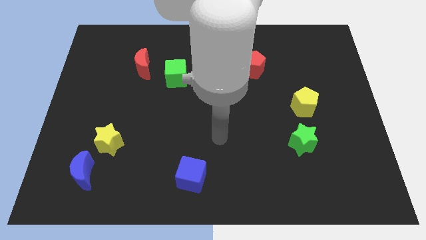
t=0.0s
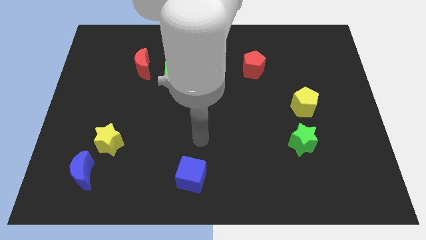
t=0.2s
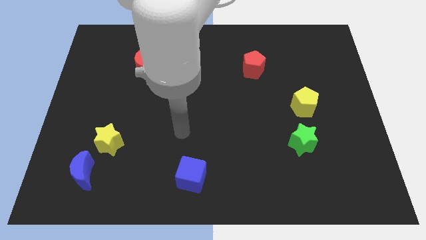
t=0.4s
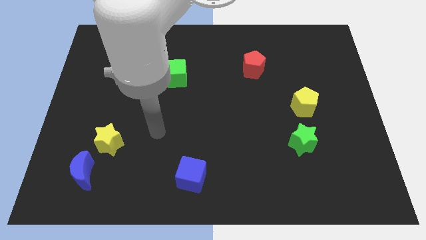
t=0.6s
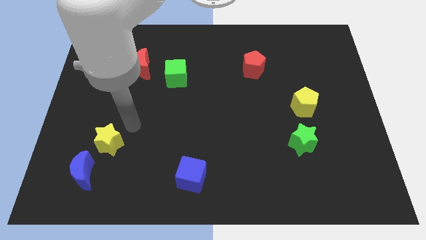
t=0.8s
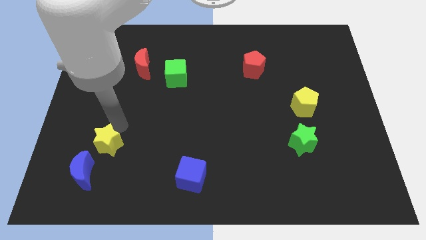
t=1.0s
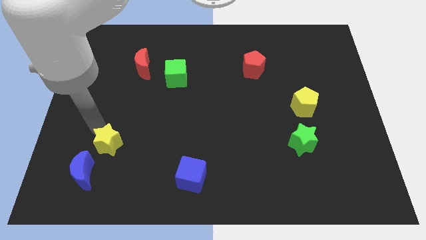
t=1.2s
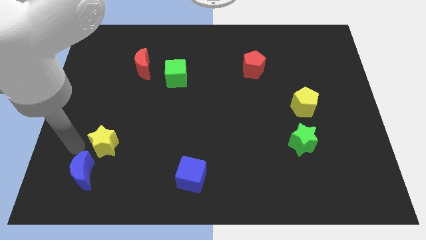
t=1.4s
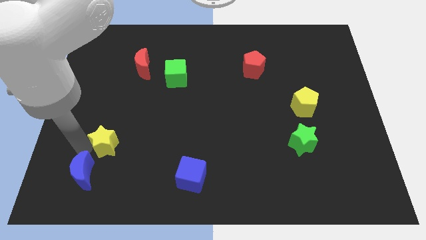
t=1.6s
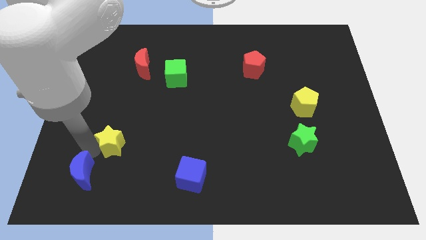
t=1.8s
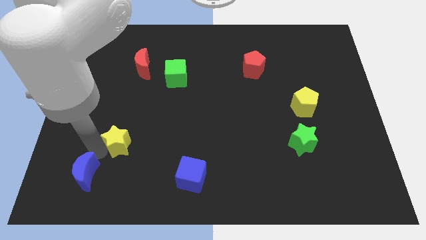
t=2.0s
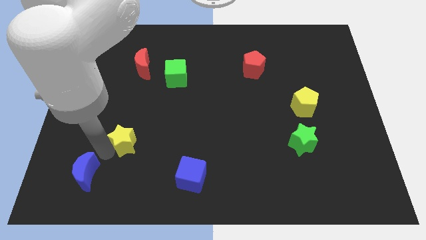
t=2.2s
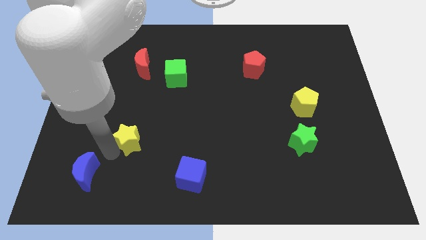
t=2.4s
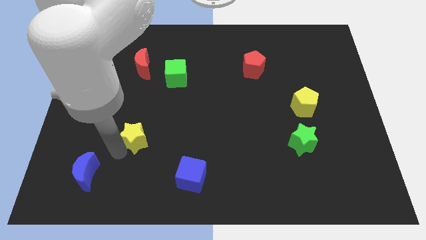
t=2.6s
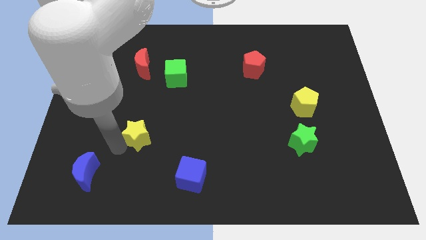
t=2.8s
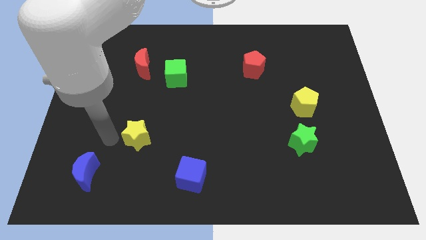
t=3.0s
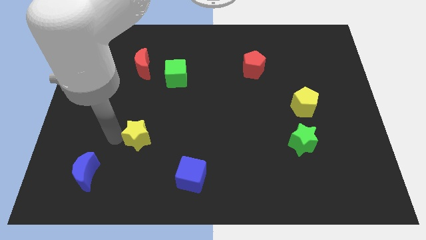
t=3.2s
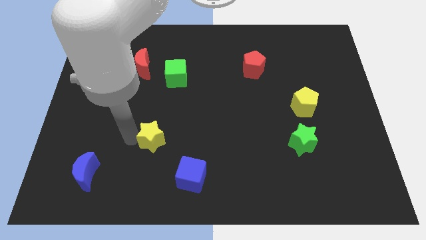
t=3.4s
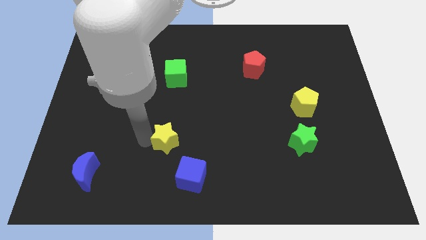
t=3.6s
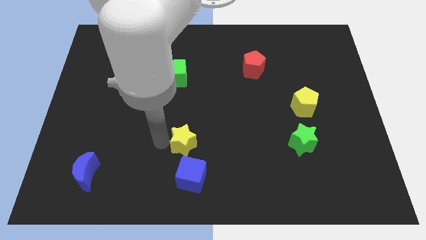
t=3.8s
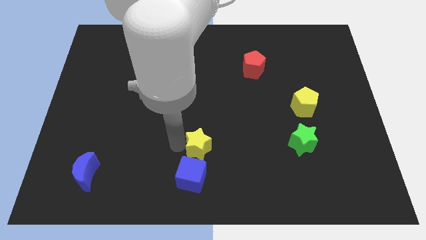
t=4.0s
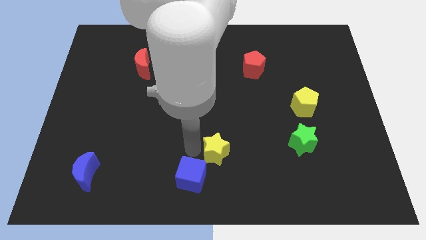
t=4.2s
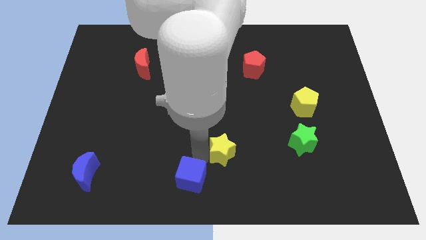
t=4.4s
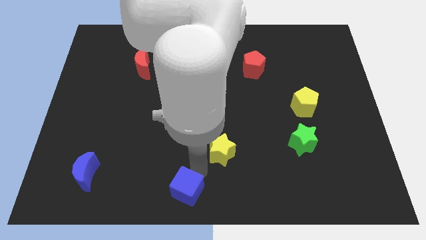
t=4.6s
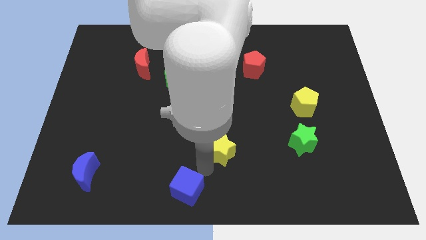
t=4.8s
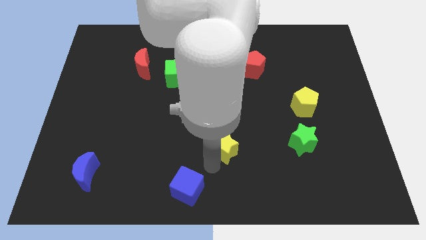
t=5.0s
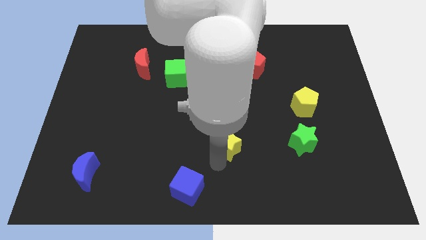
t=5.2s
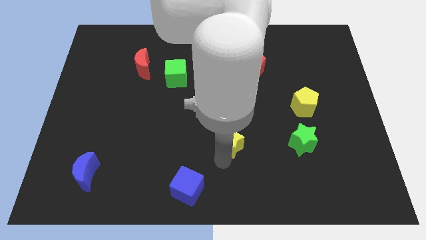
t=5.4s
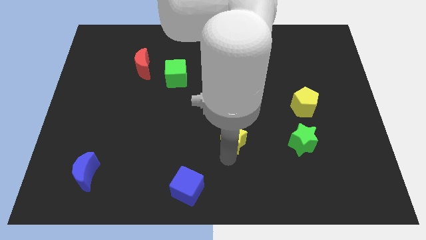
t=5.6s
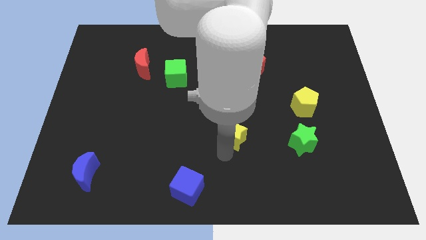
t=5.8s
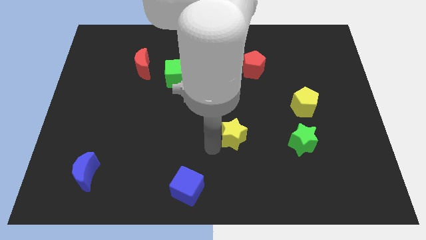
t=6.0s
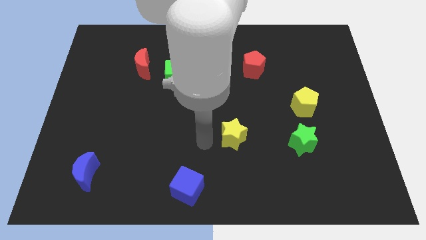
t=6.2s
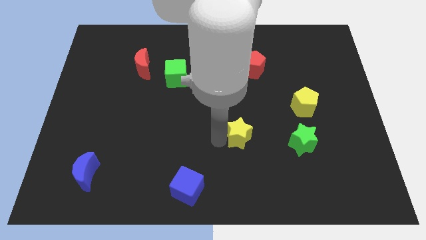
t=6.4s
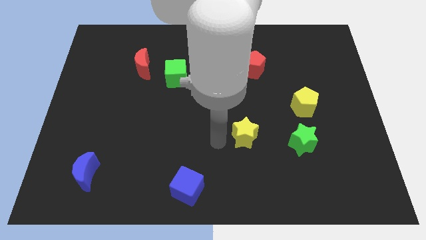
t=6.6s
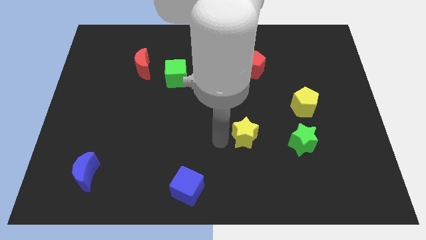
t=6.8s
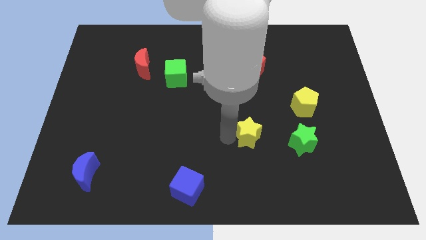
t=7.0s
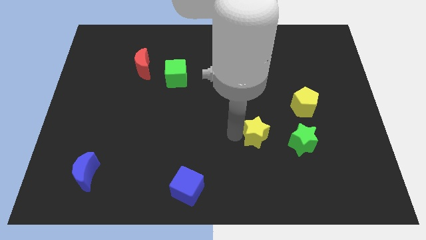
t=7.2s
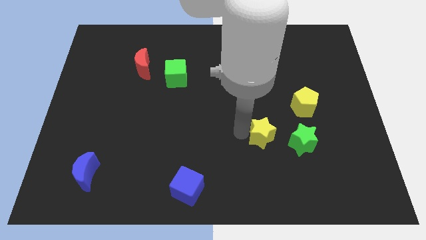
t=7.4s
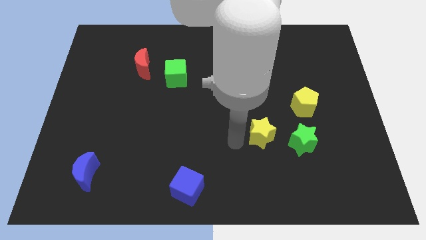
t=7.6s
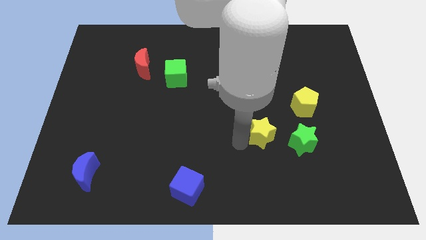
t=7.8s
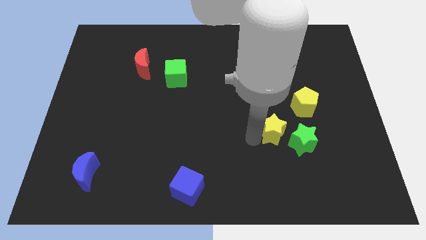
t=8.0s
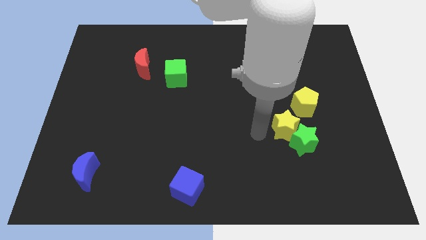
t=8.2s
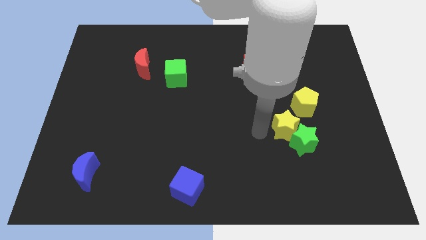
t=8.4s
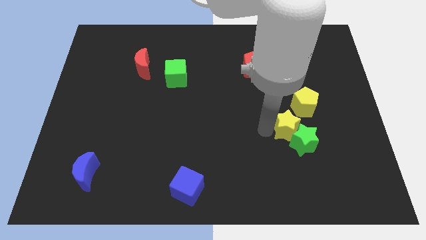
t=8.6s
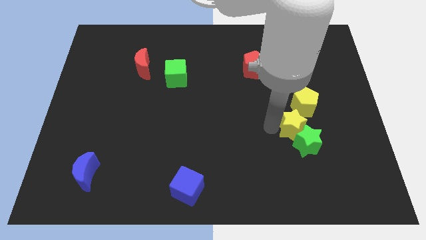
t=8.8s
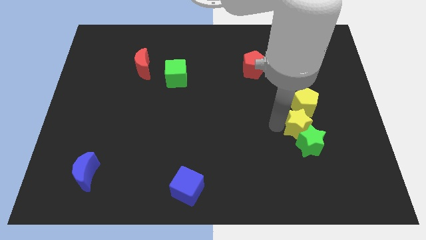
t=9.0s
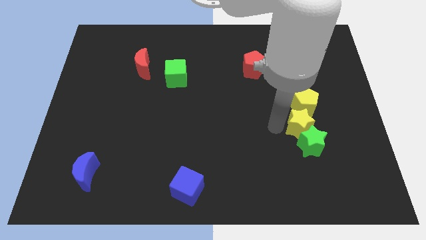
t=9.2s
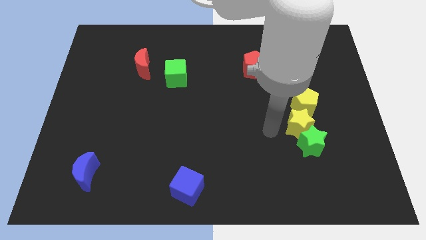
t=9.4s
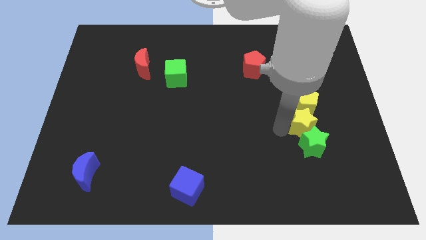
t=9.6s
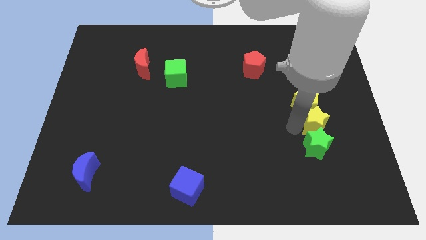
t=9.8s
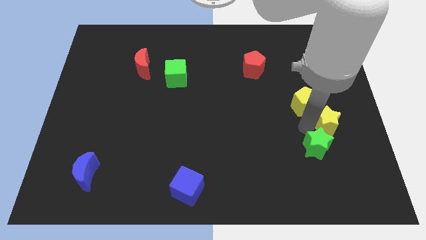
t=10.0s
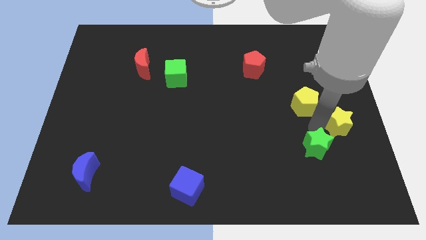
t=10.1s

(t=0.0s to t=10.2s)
slide the yellow star to the center right

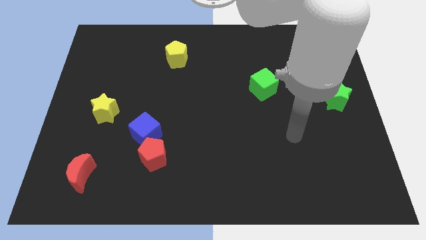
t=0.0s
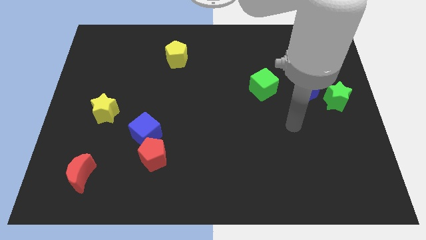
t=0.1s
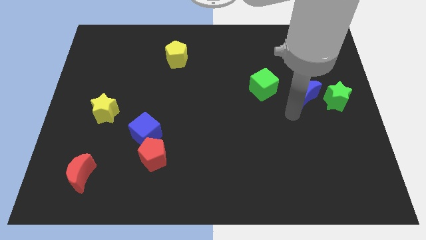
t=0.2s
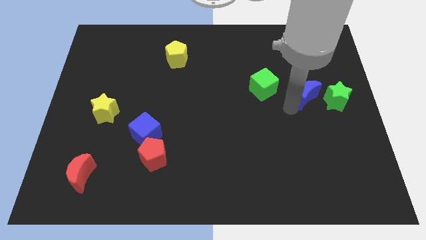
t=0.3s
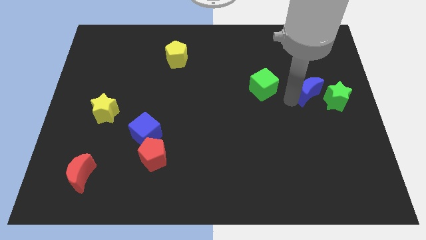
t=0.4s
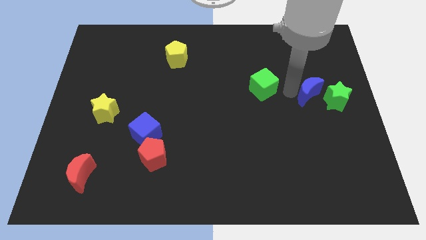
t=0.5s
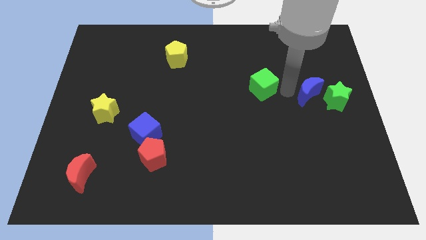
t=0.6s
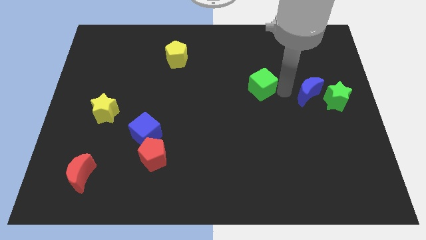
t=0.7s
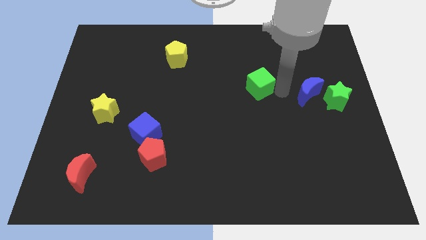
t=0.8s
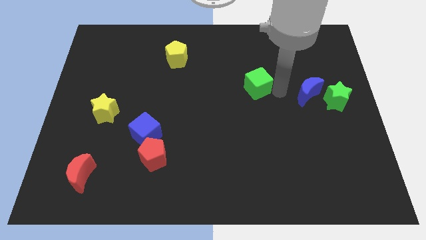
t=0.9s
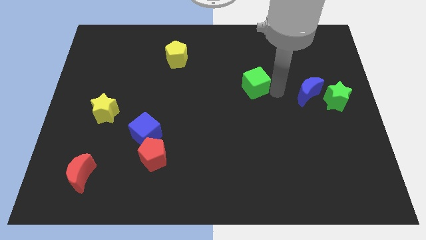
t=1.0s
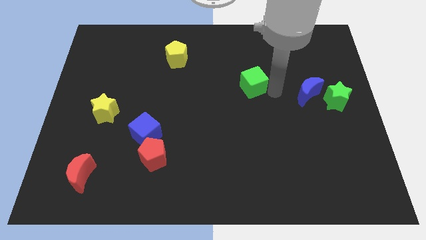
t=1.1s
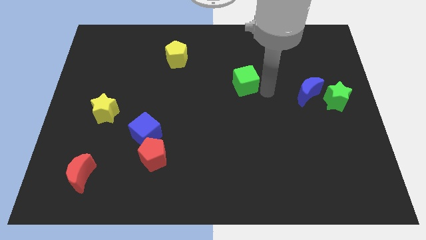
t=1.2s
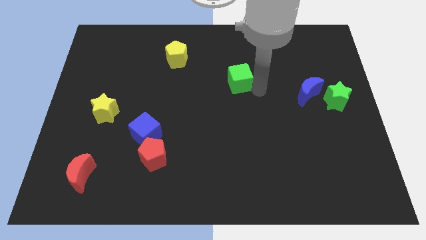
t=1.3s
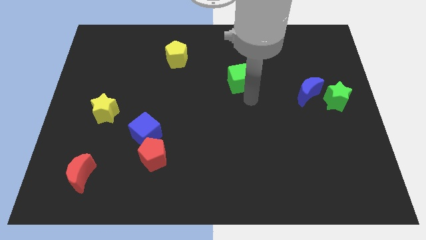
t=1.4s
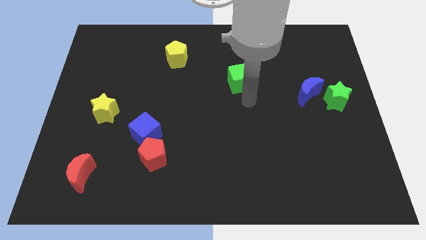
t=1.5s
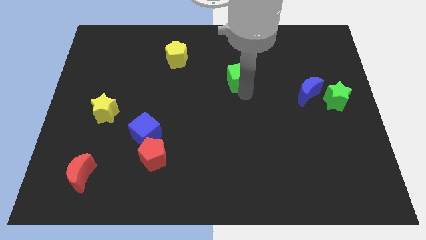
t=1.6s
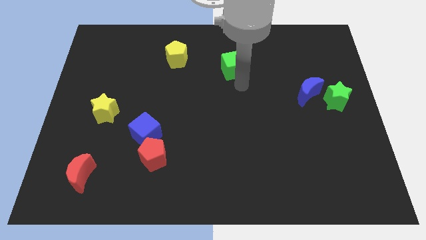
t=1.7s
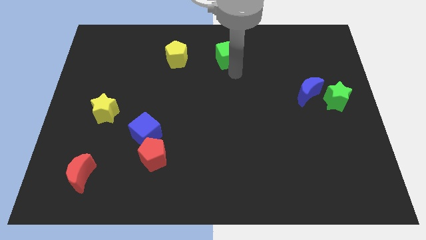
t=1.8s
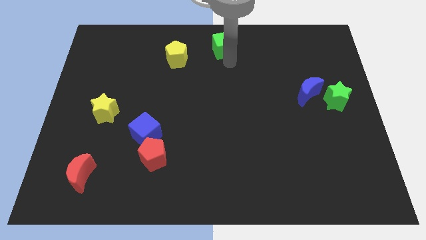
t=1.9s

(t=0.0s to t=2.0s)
push the green cube to the towards your base
